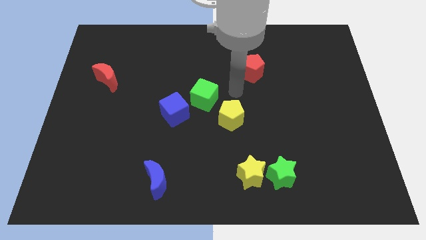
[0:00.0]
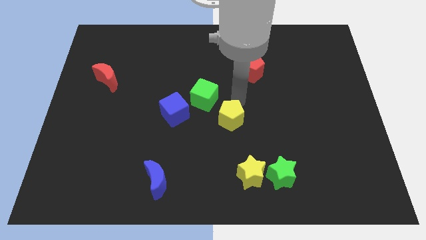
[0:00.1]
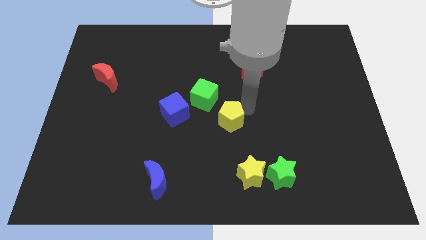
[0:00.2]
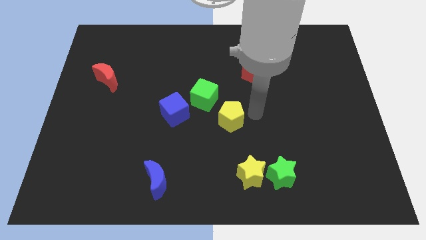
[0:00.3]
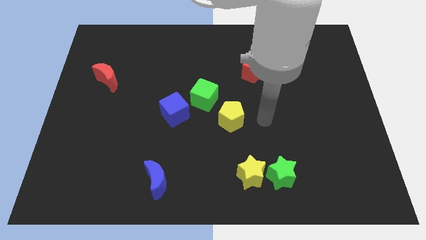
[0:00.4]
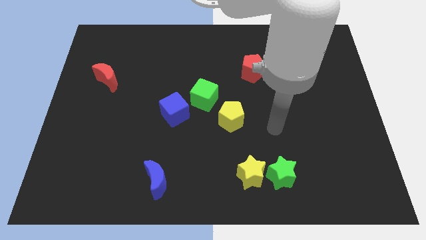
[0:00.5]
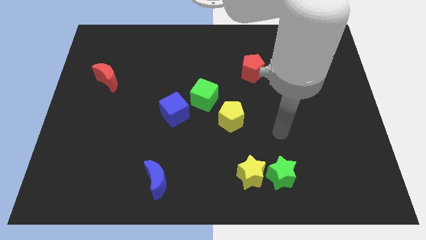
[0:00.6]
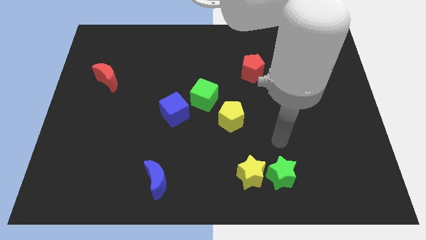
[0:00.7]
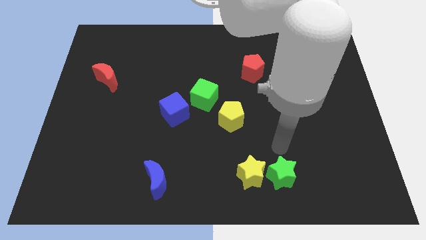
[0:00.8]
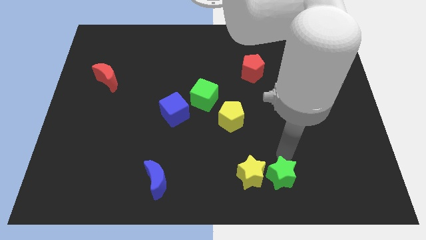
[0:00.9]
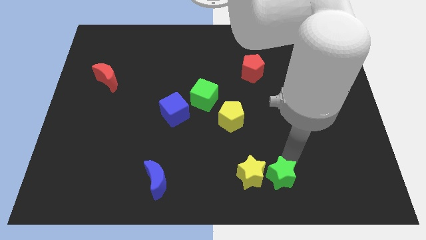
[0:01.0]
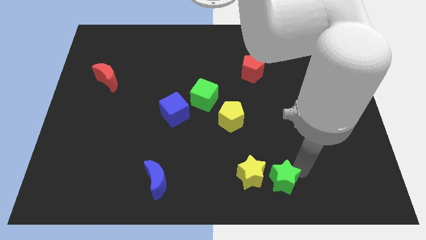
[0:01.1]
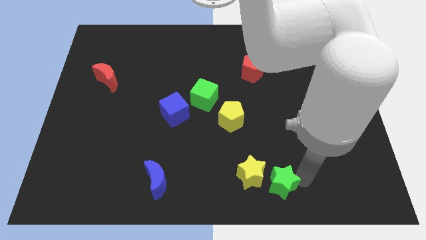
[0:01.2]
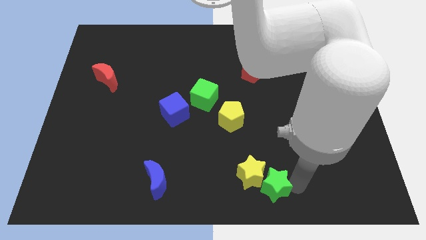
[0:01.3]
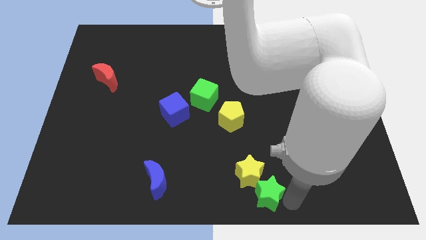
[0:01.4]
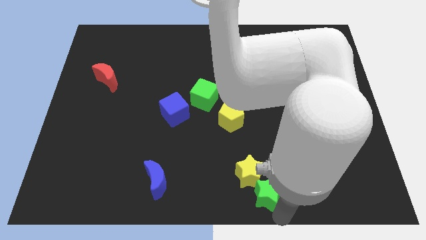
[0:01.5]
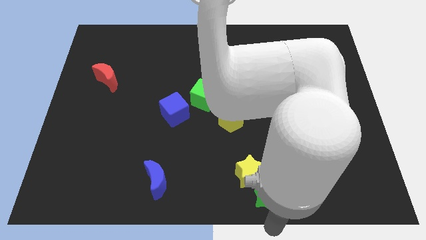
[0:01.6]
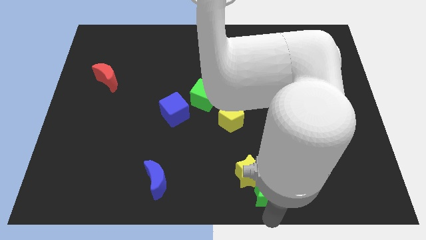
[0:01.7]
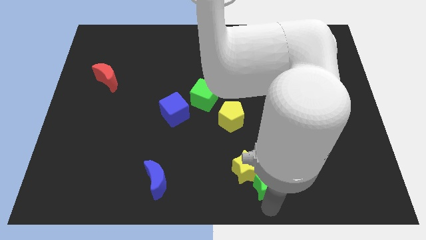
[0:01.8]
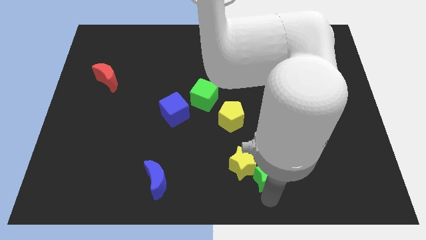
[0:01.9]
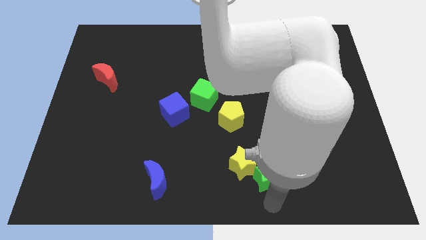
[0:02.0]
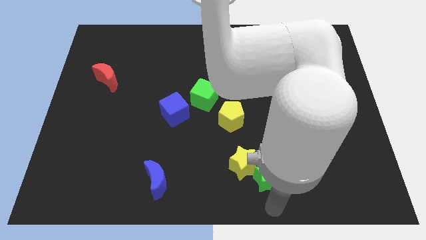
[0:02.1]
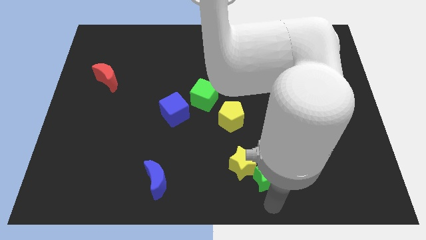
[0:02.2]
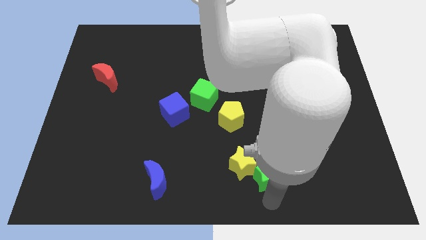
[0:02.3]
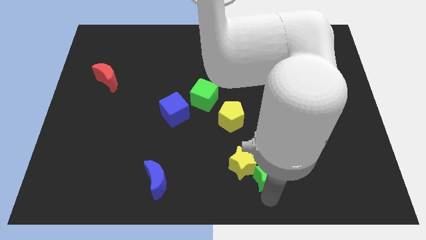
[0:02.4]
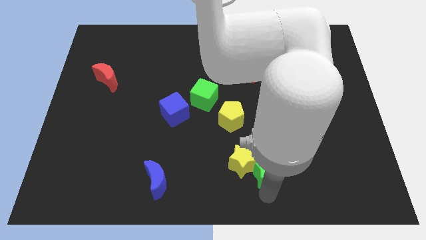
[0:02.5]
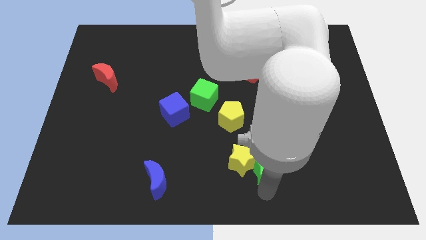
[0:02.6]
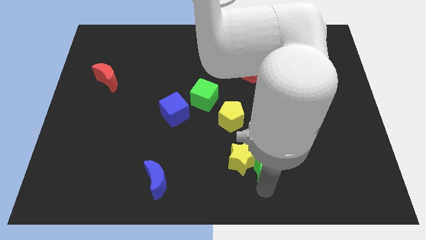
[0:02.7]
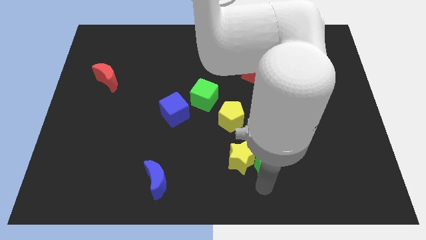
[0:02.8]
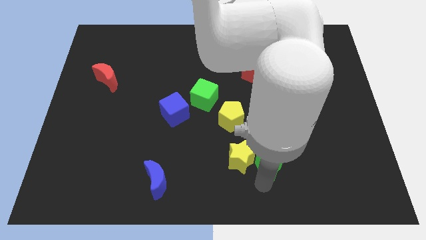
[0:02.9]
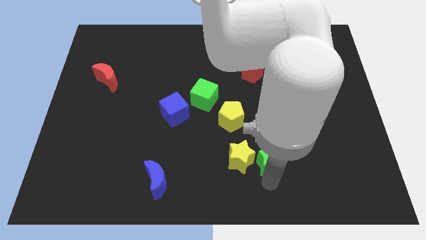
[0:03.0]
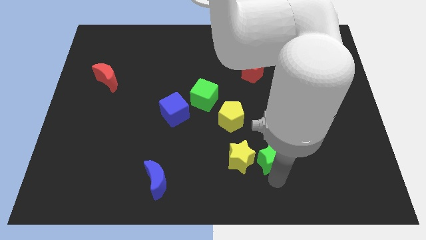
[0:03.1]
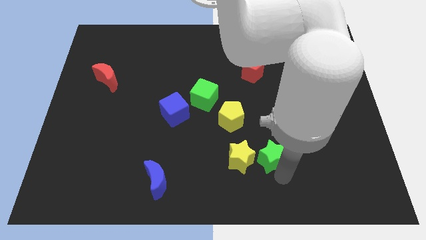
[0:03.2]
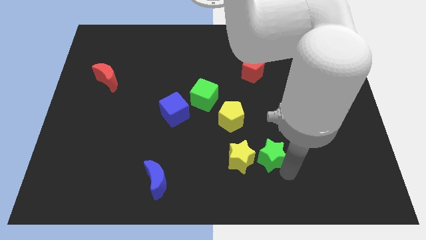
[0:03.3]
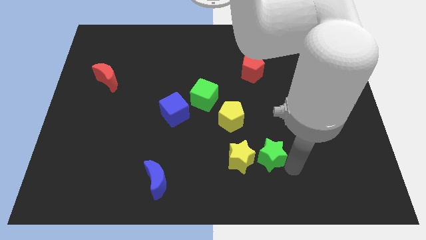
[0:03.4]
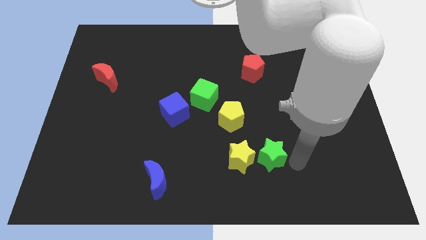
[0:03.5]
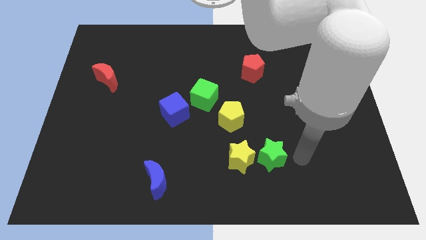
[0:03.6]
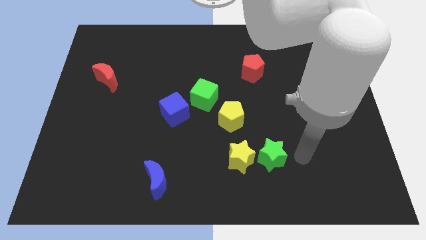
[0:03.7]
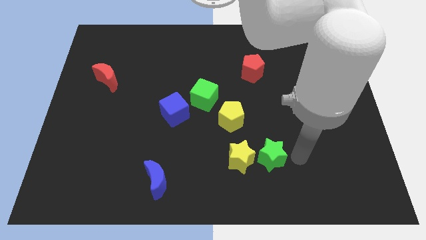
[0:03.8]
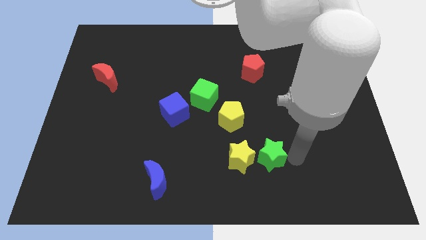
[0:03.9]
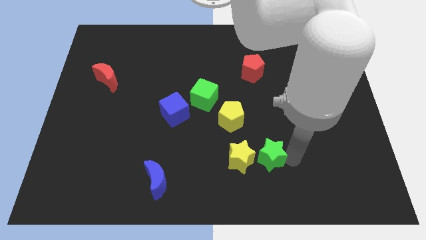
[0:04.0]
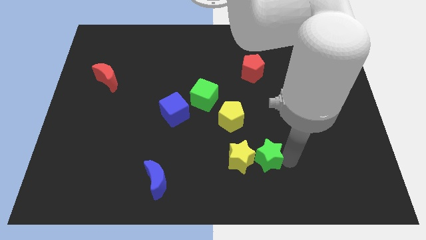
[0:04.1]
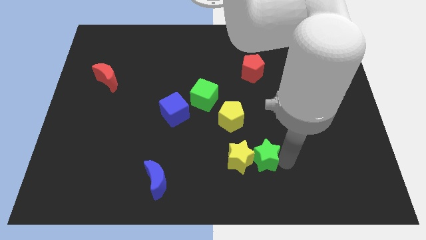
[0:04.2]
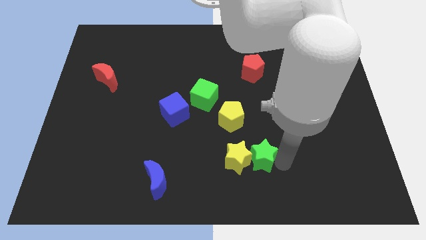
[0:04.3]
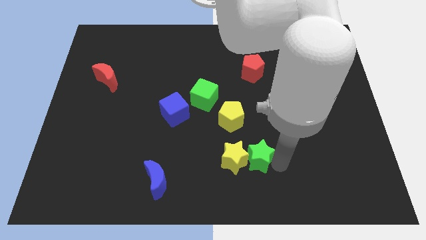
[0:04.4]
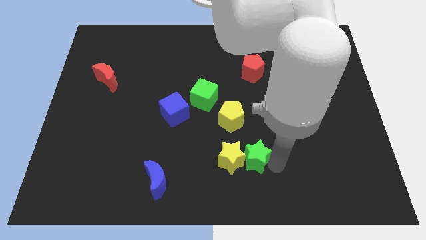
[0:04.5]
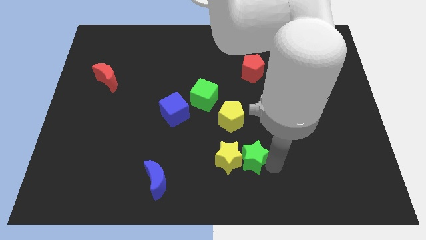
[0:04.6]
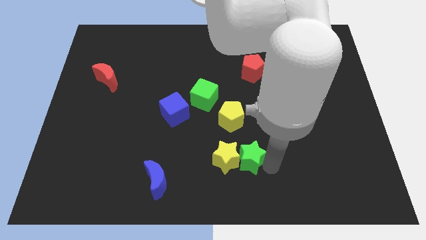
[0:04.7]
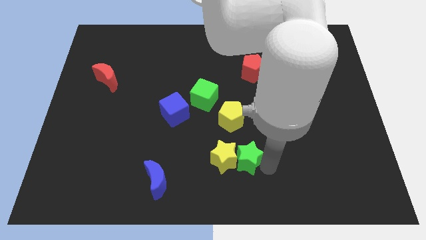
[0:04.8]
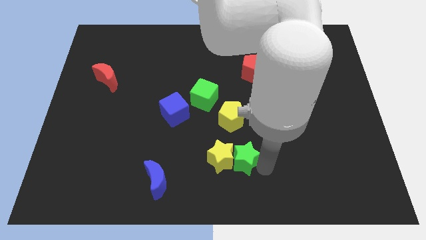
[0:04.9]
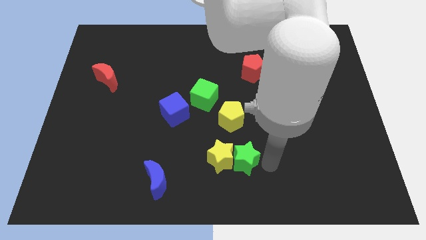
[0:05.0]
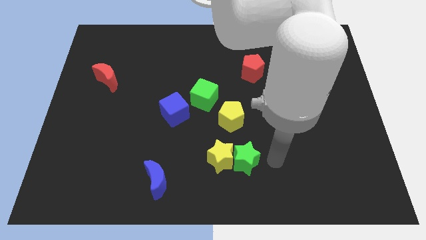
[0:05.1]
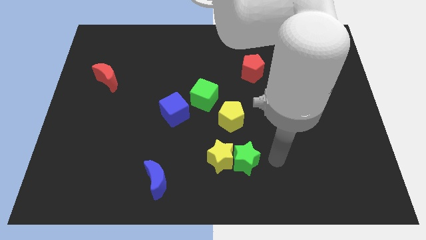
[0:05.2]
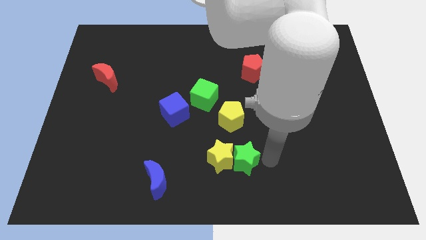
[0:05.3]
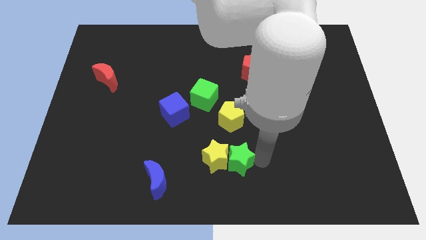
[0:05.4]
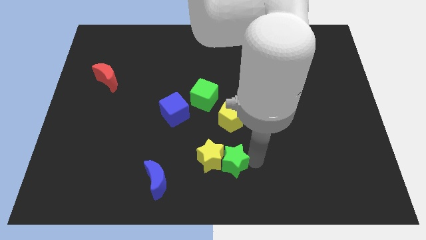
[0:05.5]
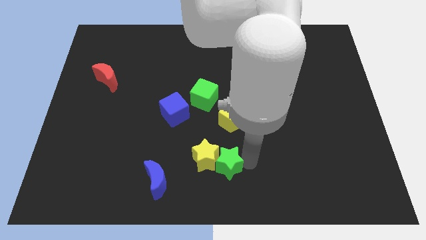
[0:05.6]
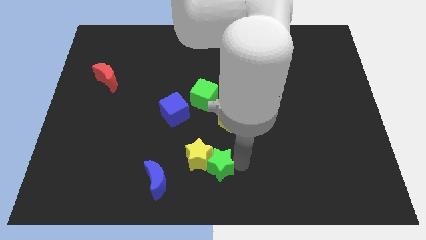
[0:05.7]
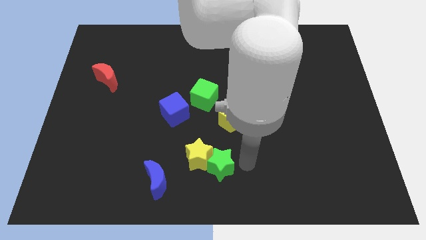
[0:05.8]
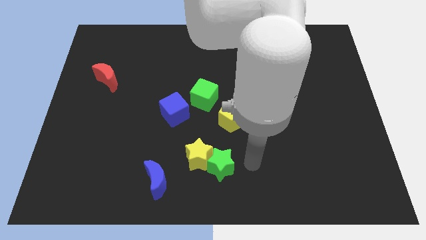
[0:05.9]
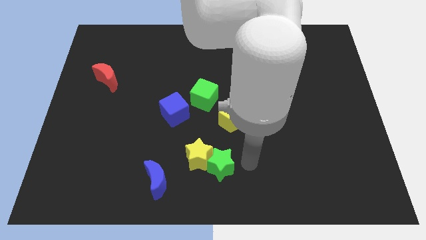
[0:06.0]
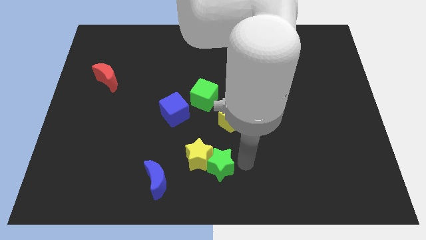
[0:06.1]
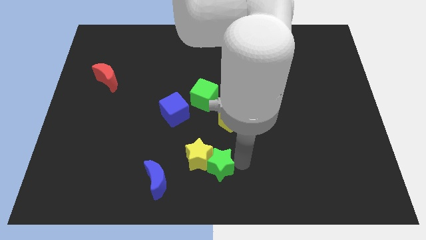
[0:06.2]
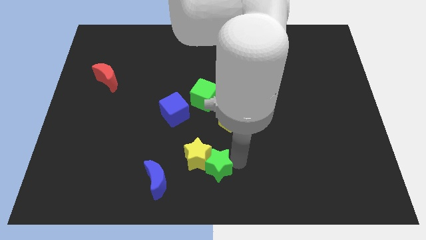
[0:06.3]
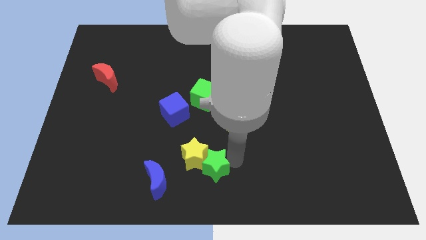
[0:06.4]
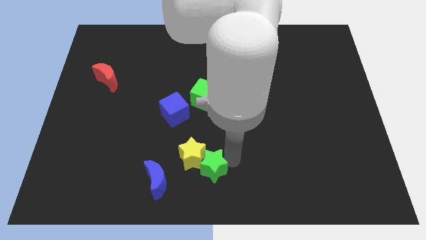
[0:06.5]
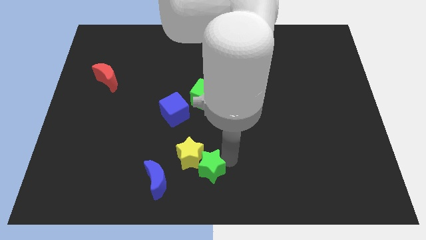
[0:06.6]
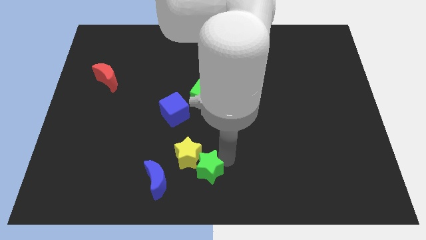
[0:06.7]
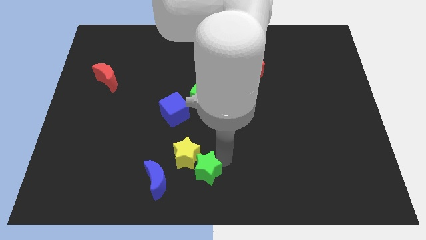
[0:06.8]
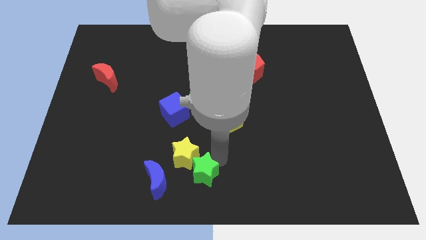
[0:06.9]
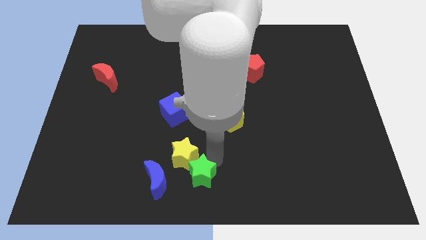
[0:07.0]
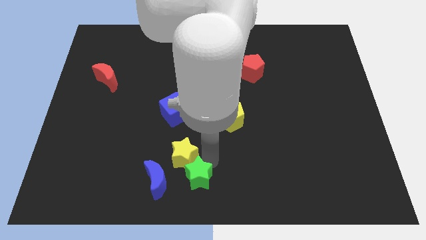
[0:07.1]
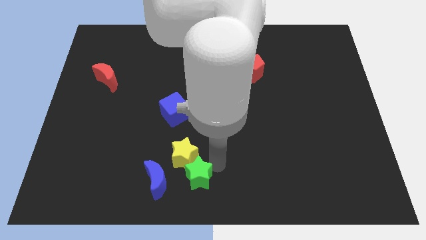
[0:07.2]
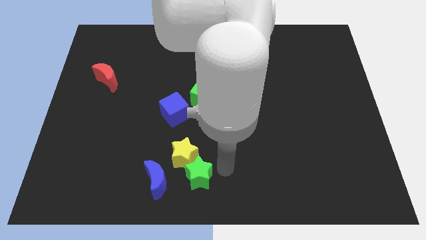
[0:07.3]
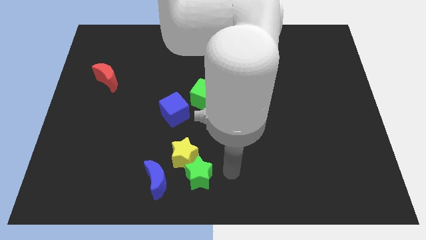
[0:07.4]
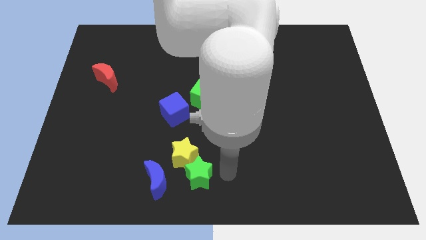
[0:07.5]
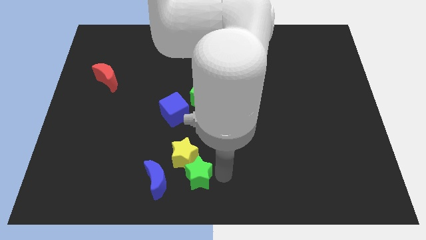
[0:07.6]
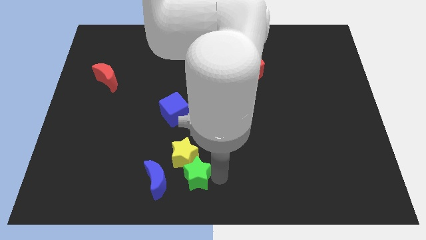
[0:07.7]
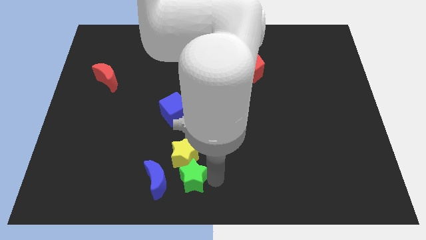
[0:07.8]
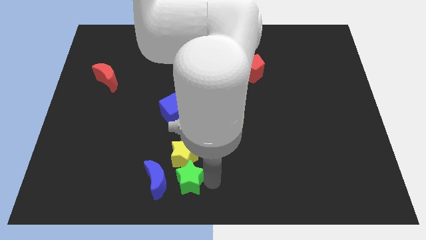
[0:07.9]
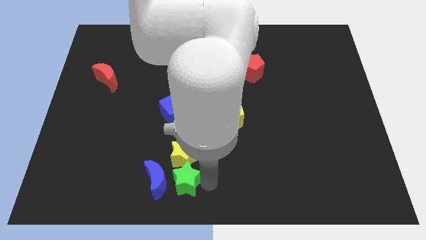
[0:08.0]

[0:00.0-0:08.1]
put the green star towards the blue moon
